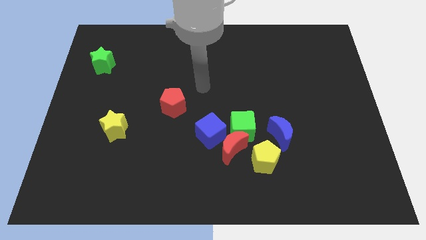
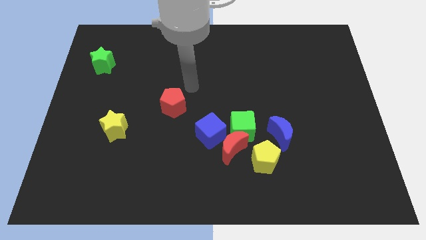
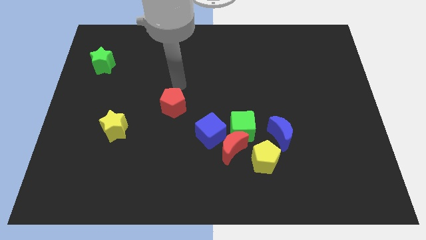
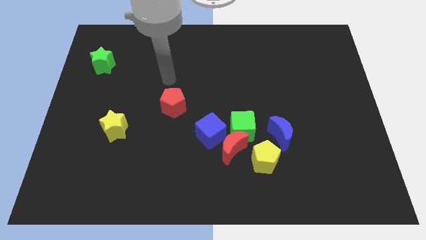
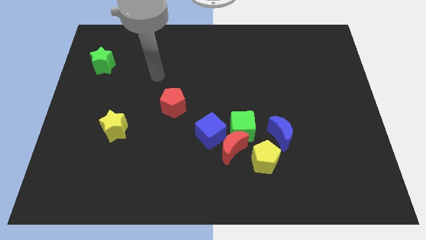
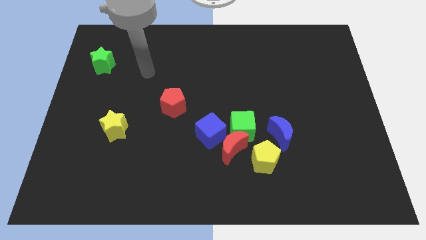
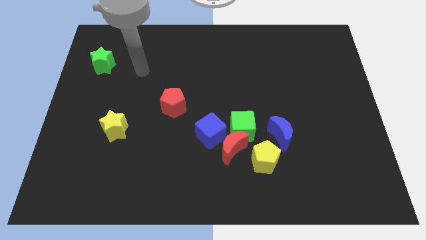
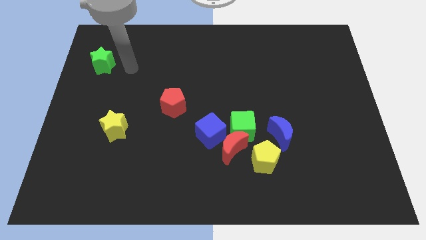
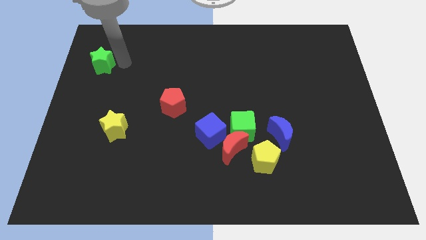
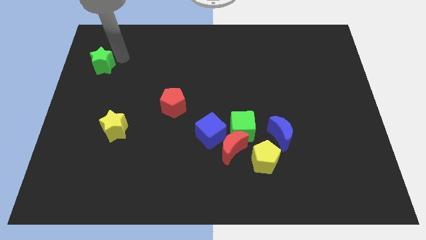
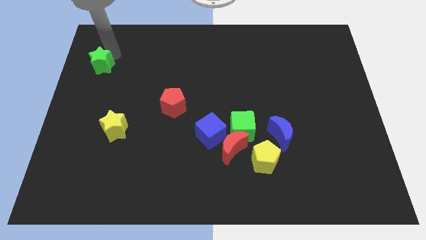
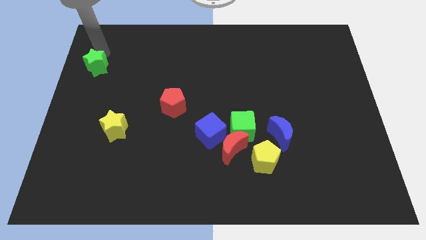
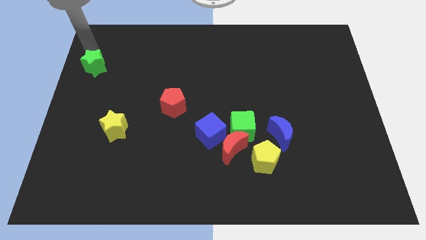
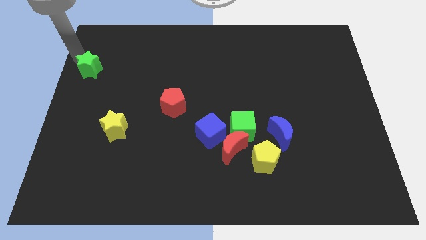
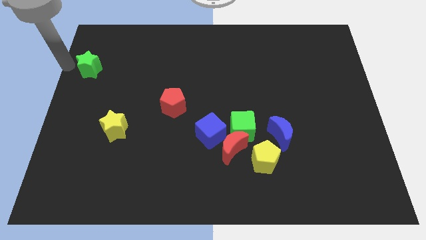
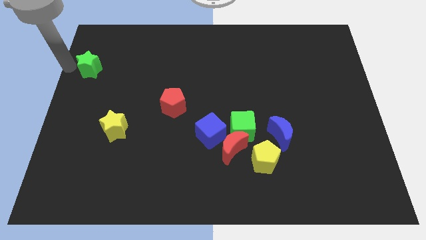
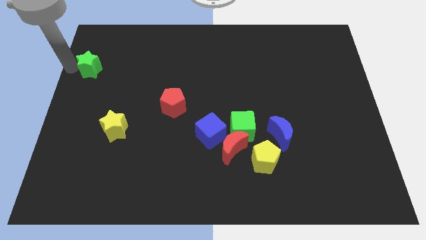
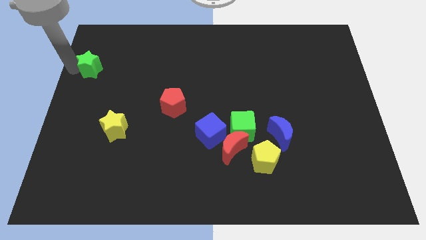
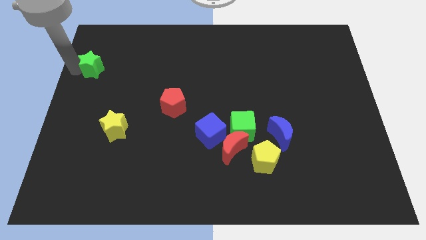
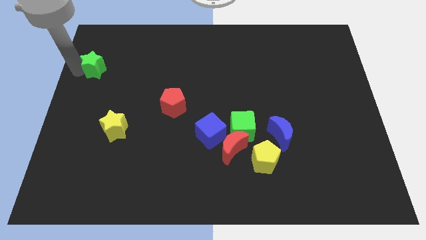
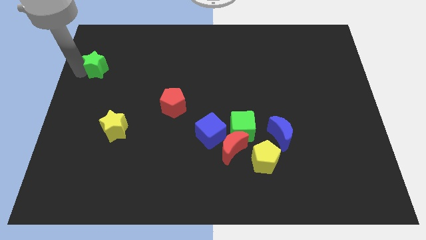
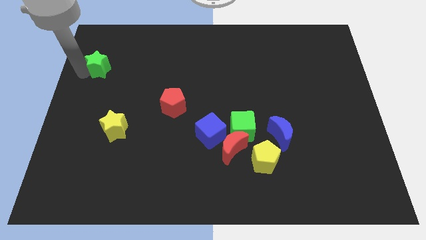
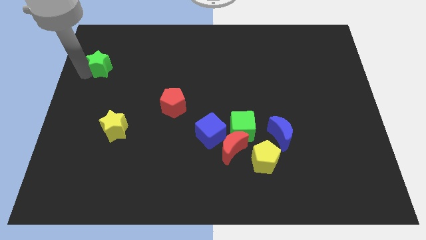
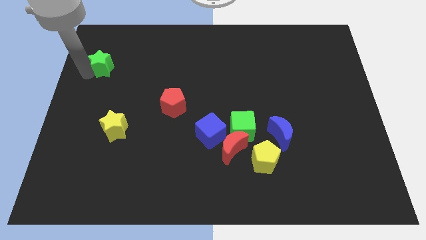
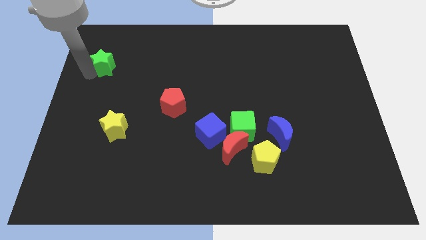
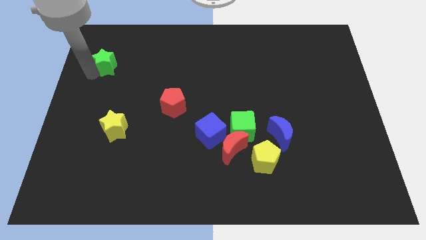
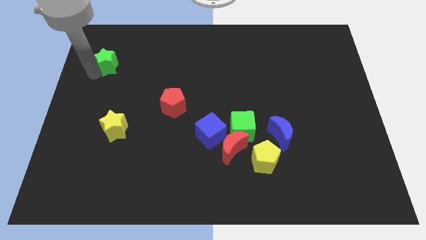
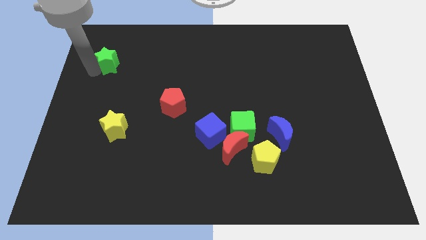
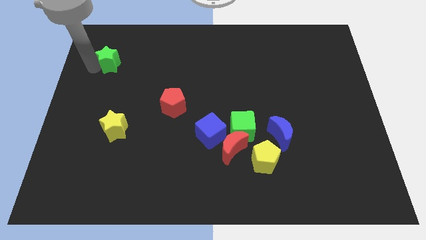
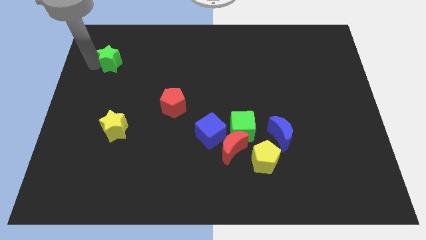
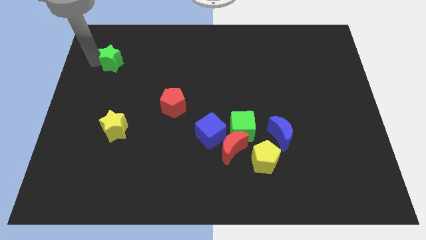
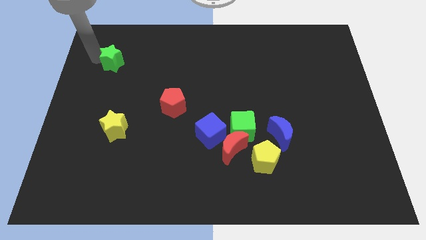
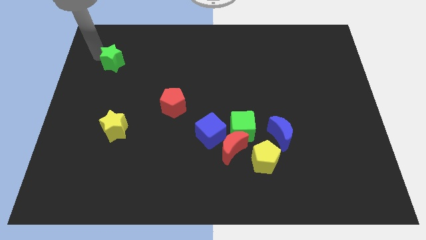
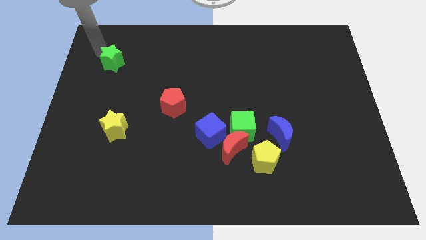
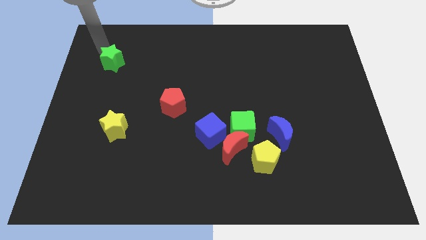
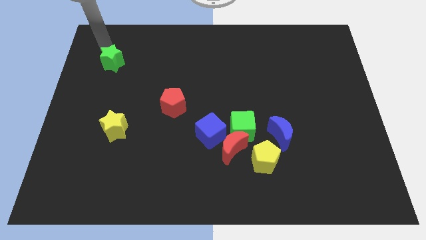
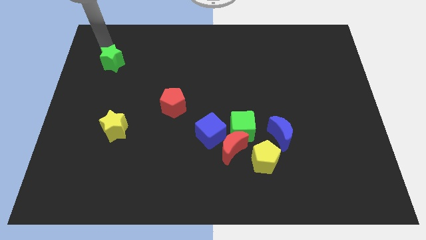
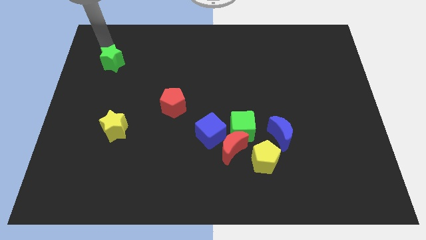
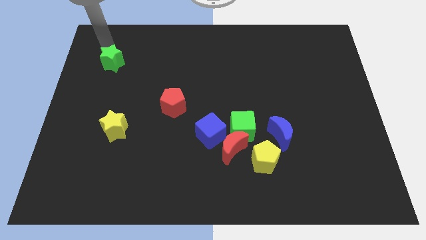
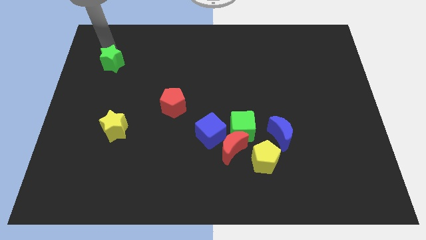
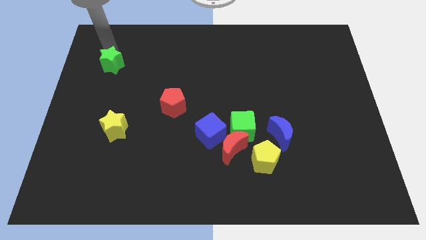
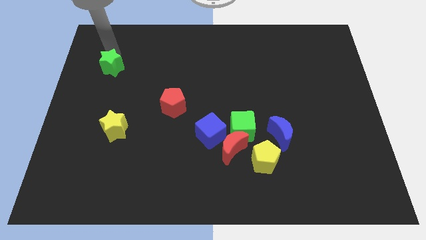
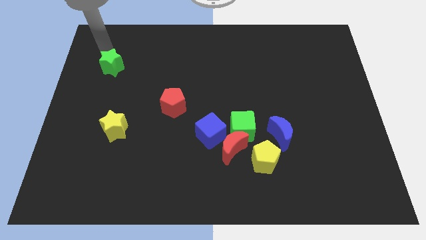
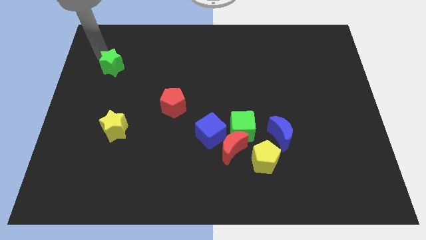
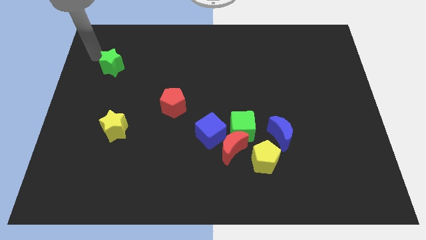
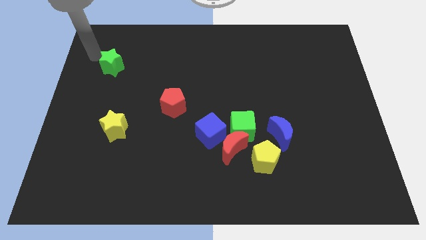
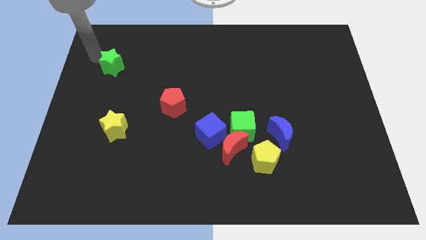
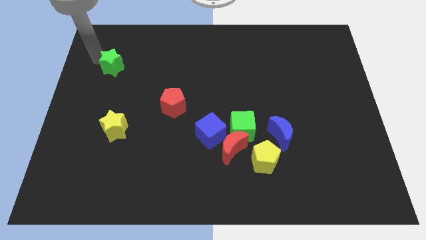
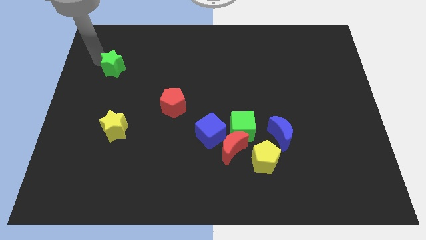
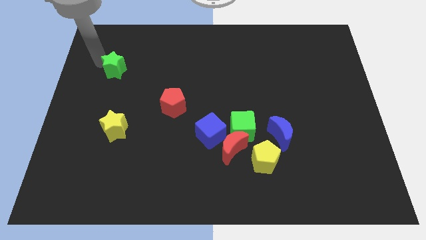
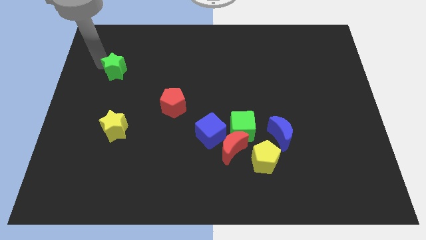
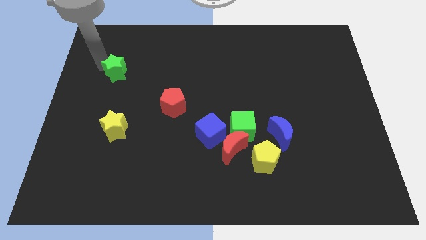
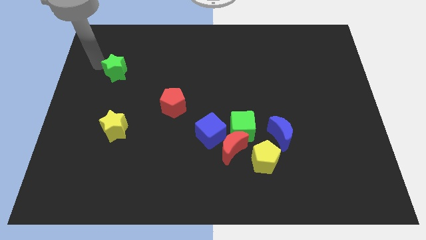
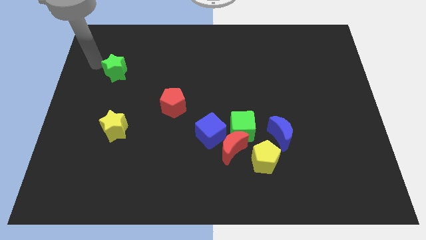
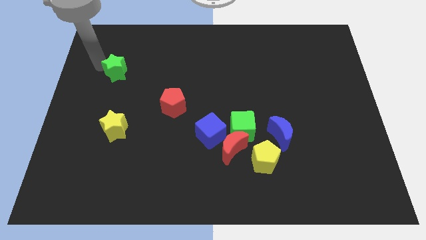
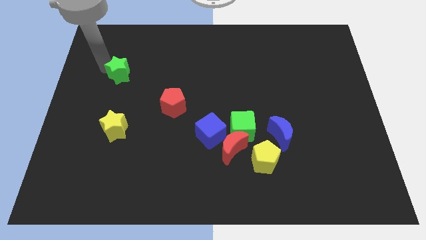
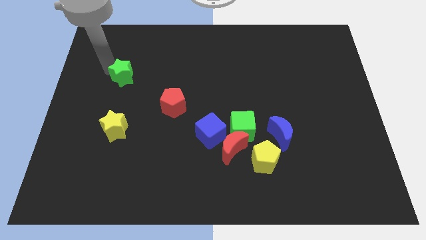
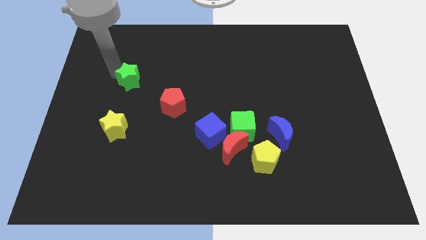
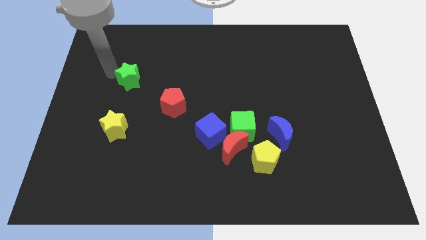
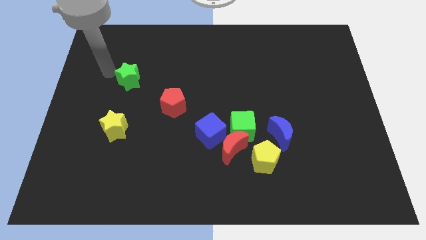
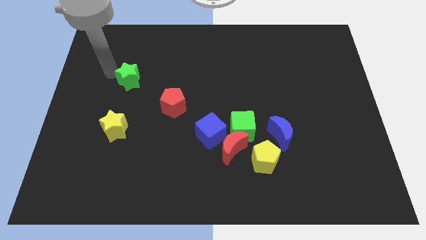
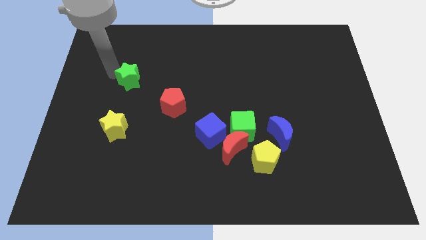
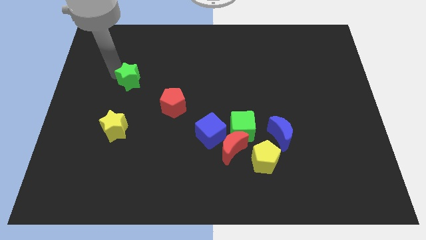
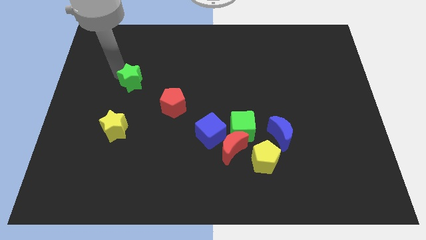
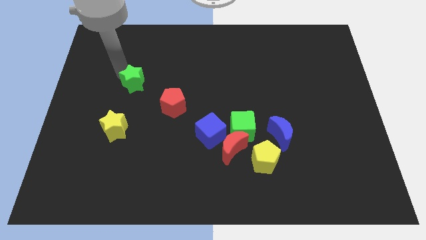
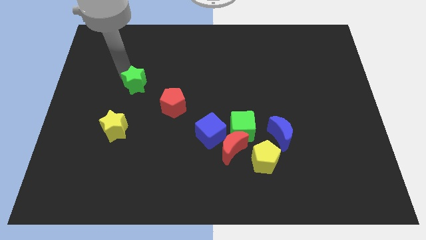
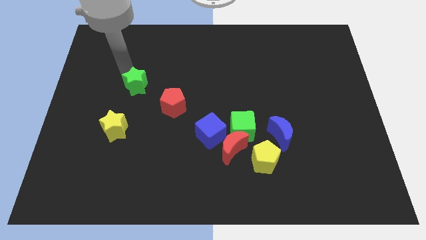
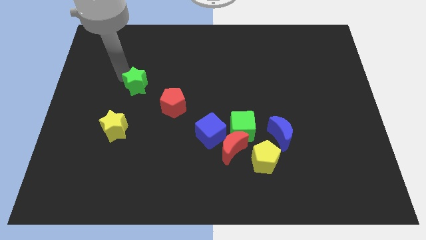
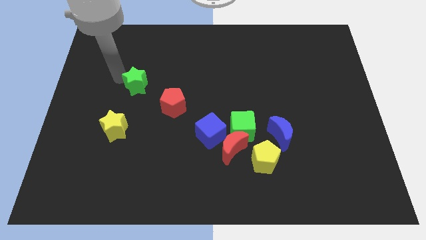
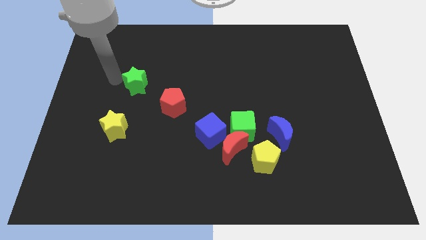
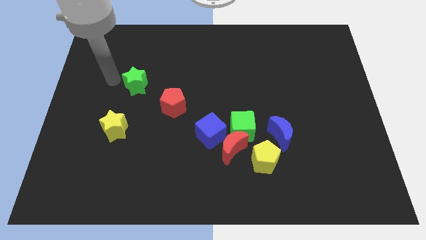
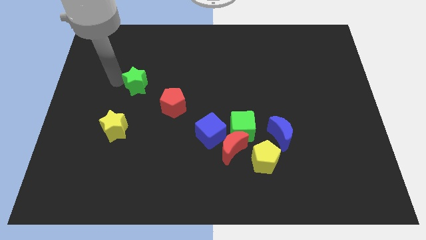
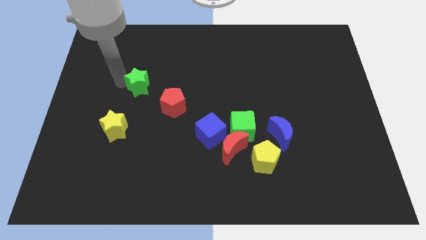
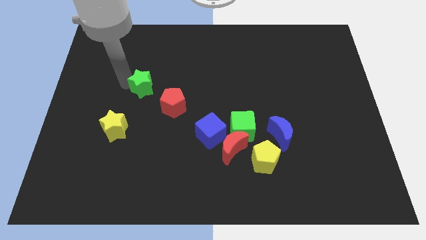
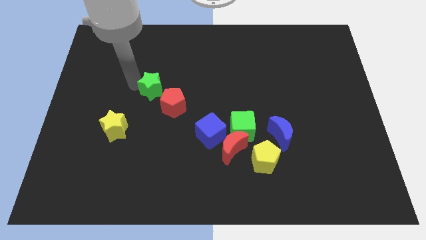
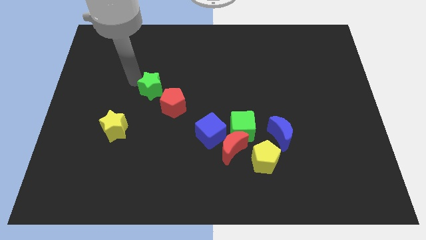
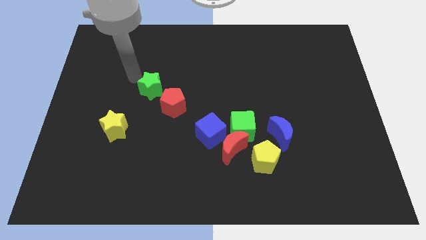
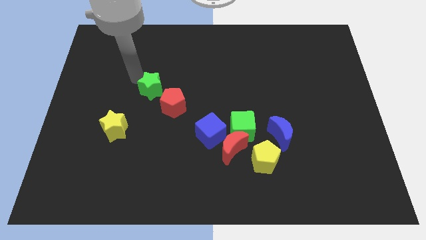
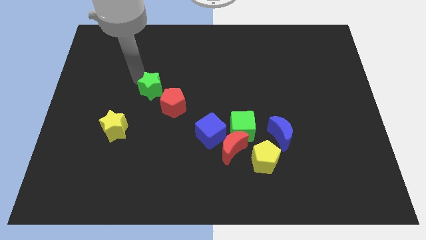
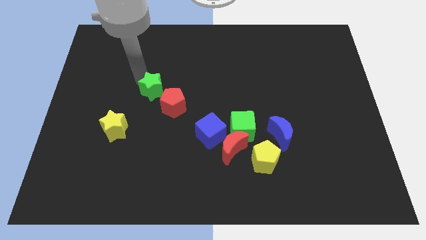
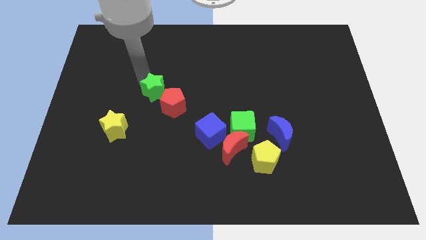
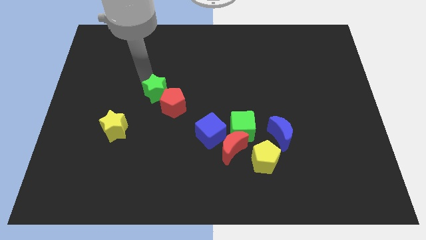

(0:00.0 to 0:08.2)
push the green star close to the red pentagon
